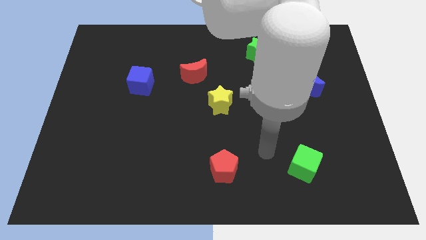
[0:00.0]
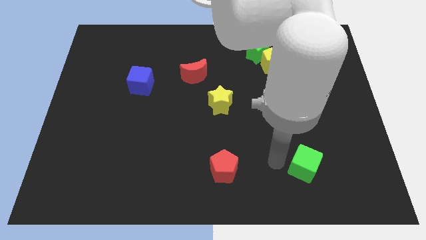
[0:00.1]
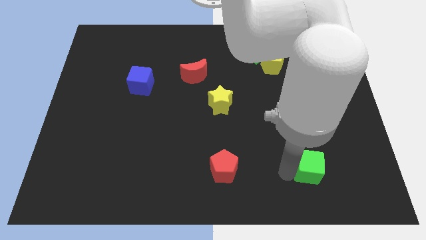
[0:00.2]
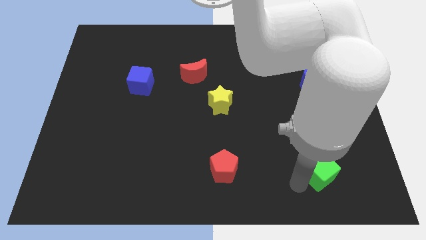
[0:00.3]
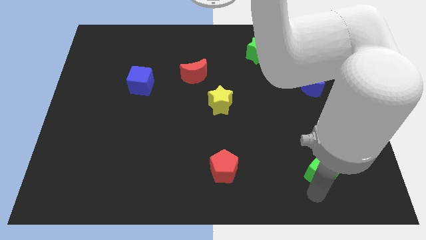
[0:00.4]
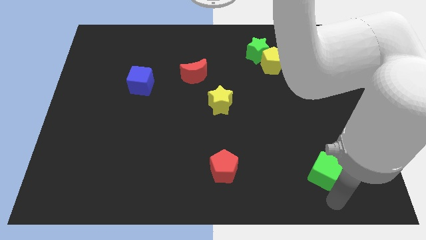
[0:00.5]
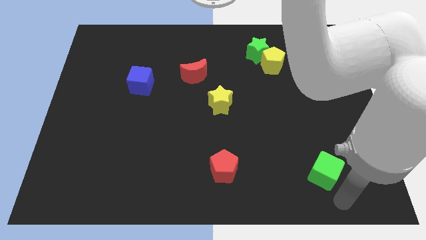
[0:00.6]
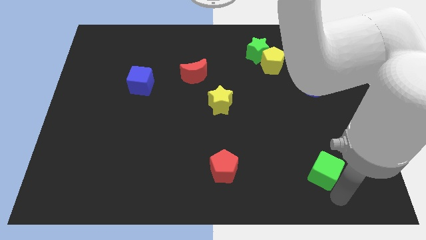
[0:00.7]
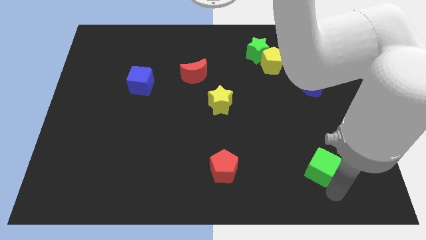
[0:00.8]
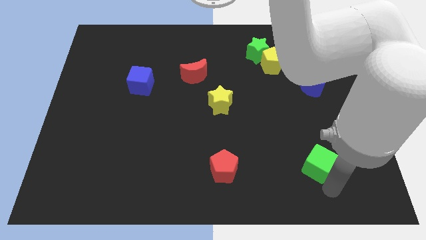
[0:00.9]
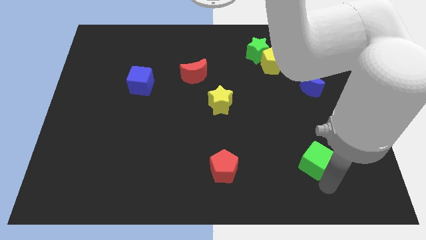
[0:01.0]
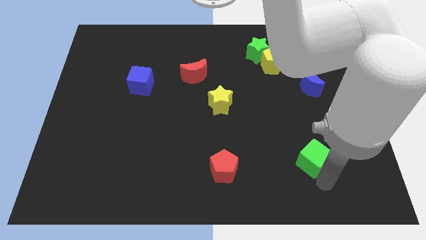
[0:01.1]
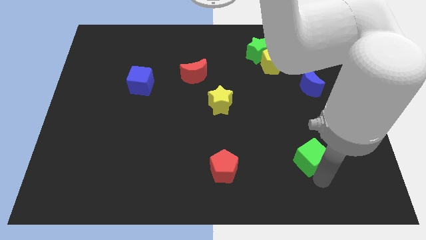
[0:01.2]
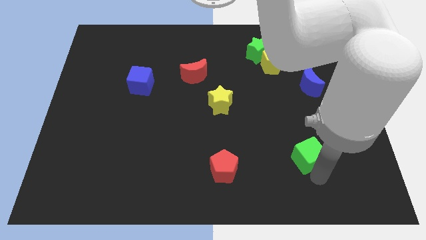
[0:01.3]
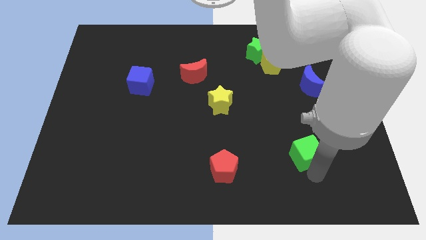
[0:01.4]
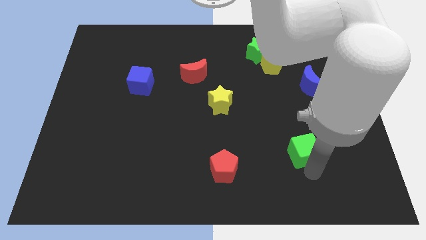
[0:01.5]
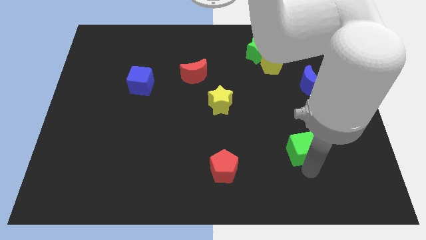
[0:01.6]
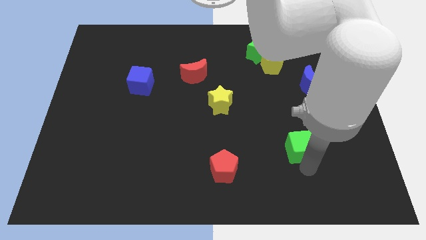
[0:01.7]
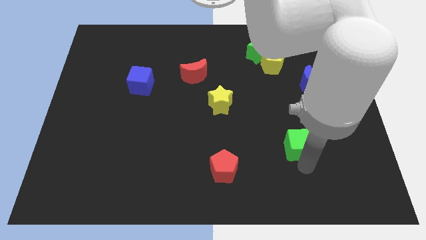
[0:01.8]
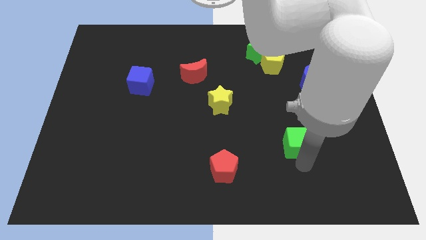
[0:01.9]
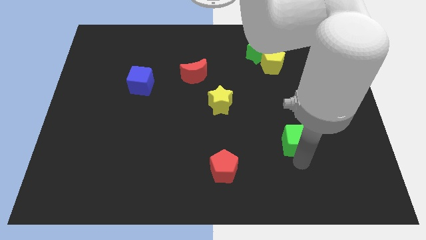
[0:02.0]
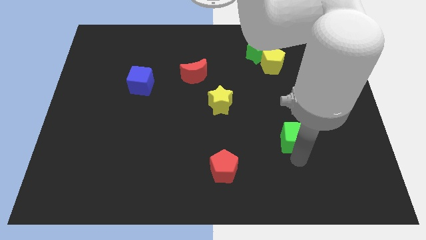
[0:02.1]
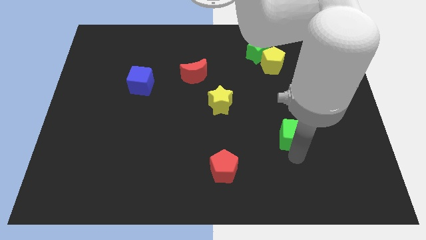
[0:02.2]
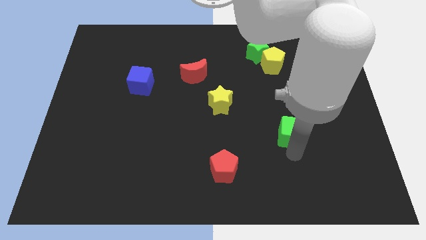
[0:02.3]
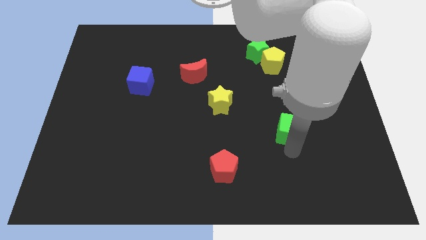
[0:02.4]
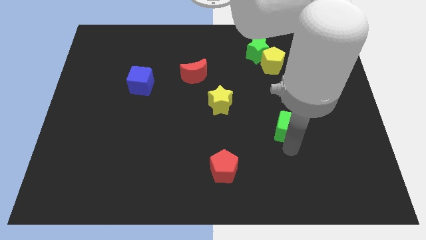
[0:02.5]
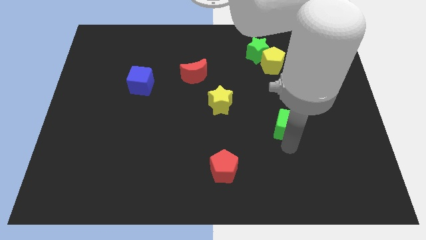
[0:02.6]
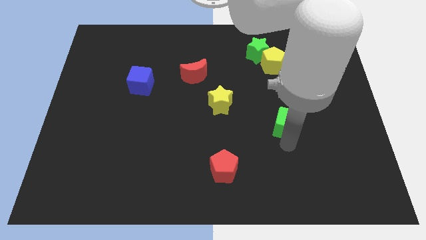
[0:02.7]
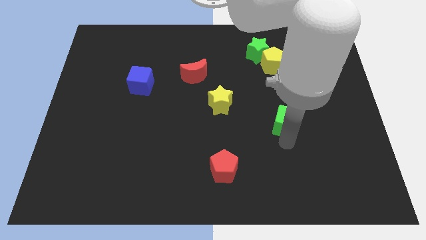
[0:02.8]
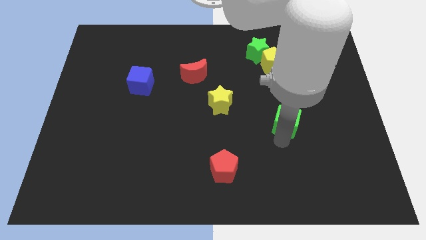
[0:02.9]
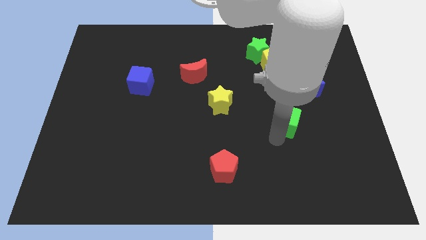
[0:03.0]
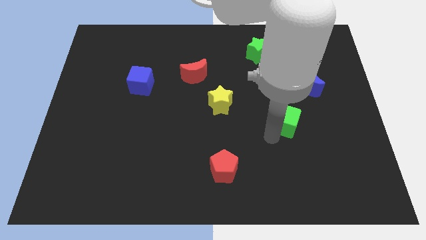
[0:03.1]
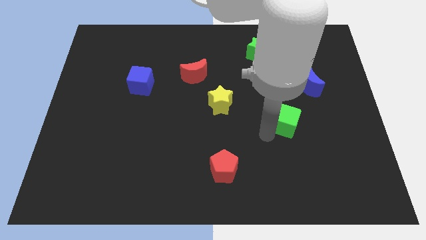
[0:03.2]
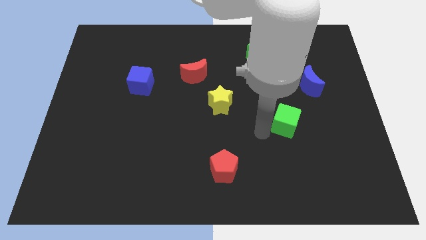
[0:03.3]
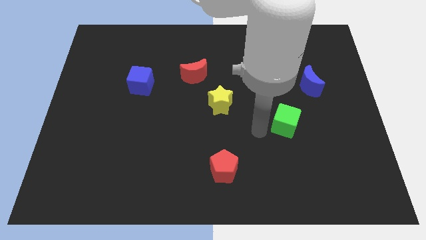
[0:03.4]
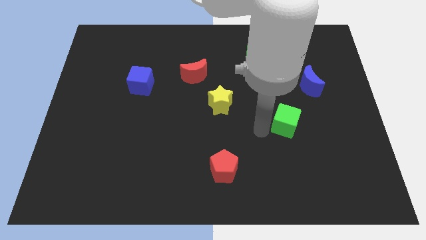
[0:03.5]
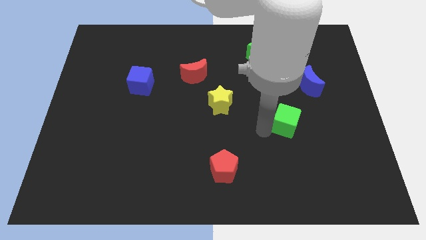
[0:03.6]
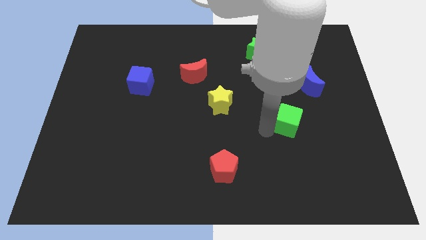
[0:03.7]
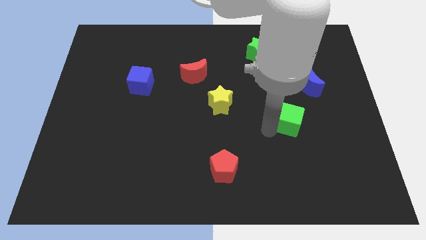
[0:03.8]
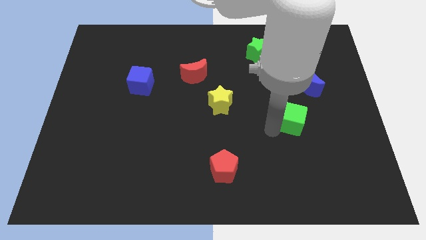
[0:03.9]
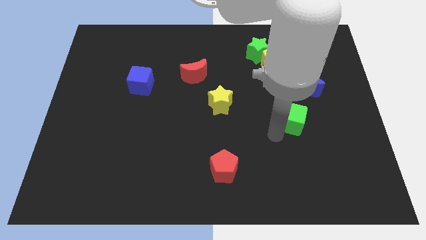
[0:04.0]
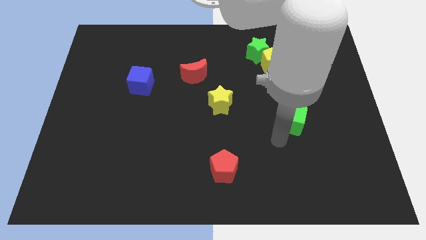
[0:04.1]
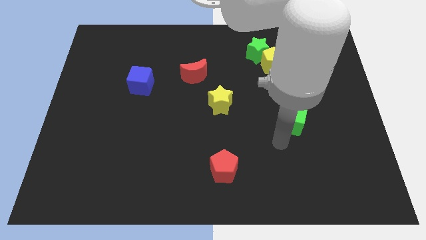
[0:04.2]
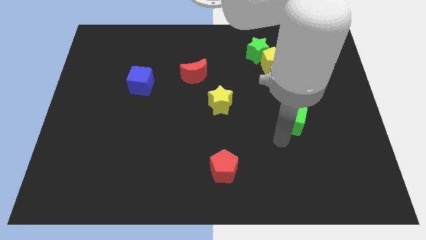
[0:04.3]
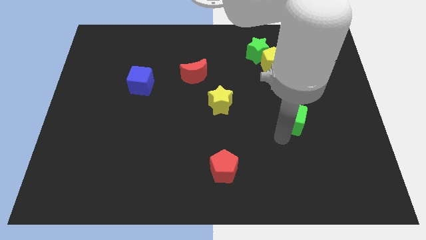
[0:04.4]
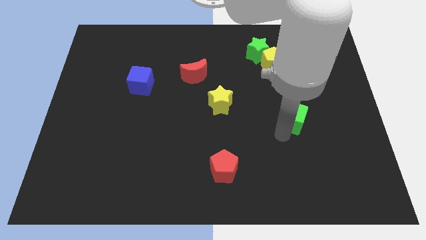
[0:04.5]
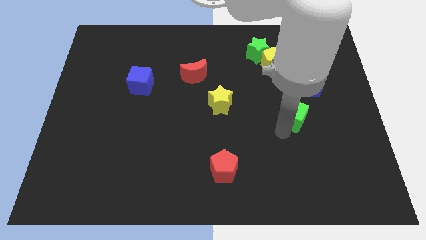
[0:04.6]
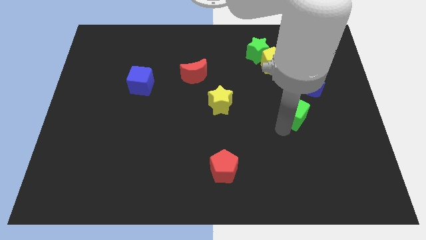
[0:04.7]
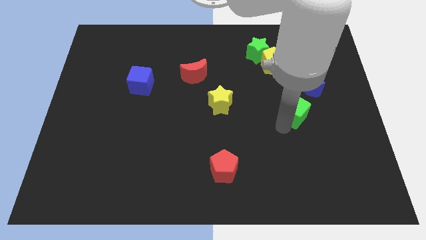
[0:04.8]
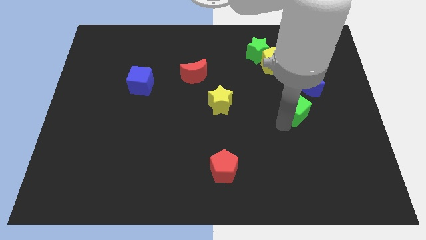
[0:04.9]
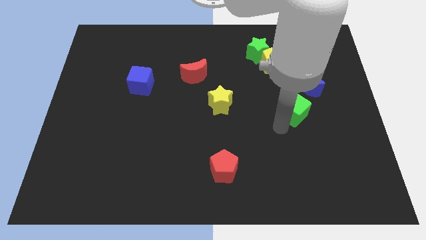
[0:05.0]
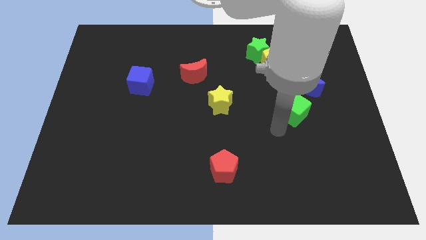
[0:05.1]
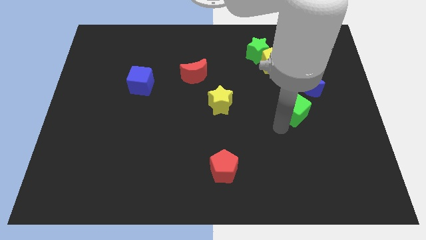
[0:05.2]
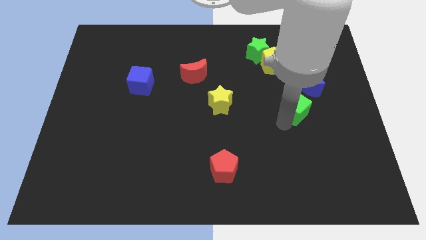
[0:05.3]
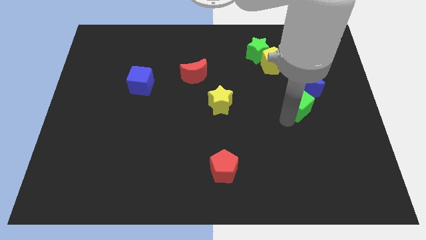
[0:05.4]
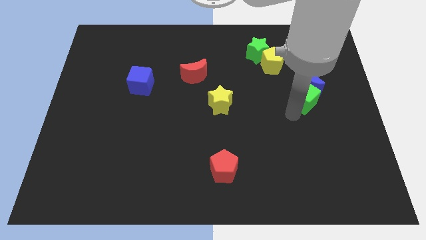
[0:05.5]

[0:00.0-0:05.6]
push the green cube next to the blue moon
